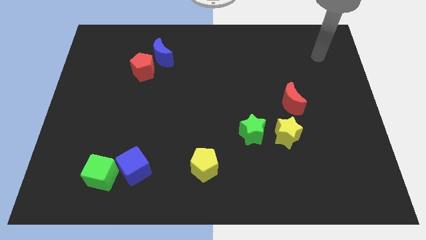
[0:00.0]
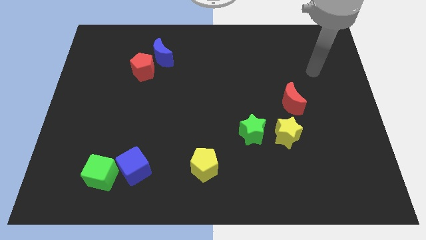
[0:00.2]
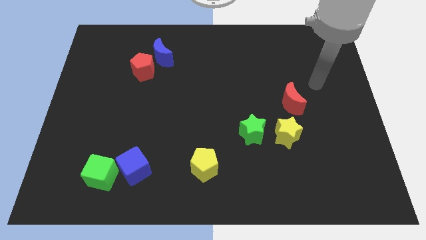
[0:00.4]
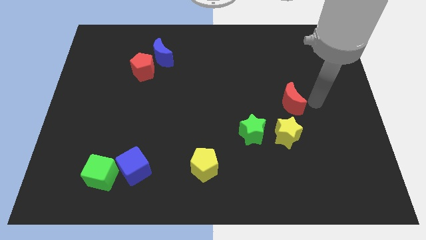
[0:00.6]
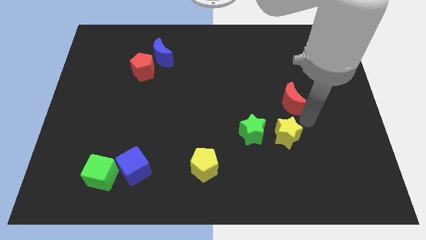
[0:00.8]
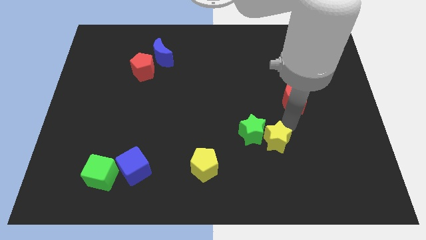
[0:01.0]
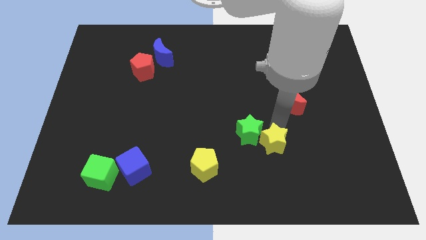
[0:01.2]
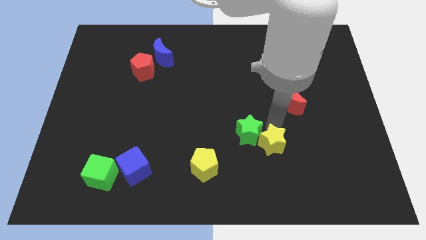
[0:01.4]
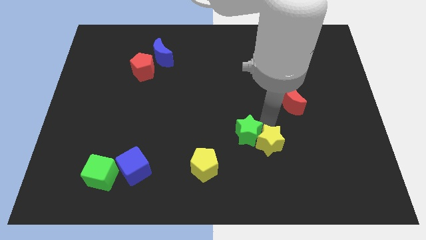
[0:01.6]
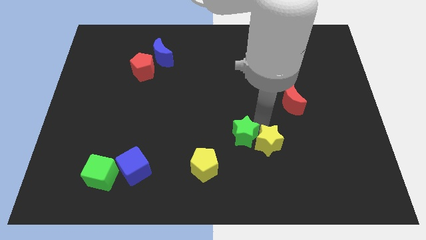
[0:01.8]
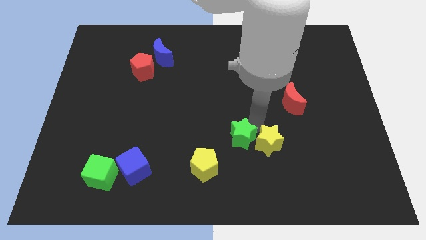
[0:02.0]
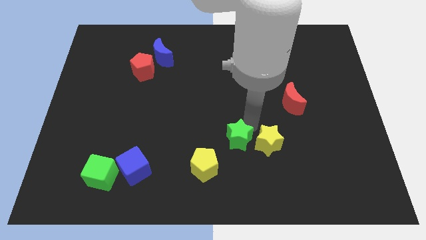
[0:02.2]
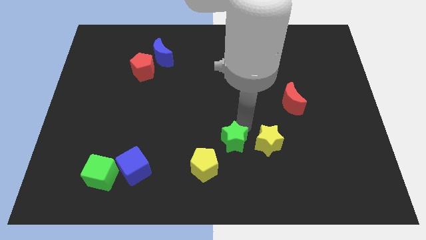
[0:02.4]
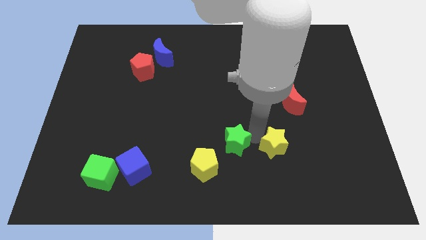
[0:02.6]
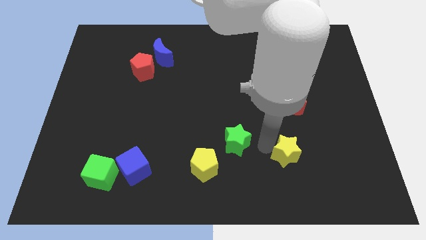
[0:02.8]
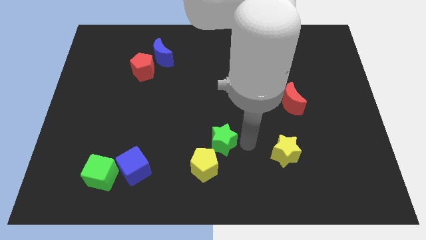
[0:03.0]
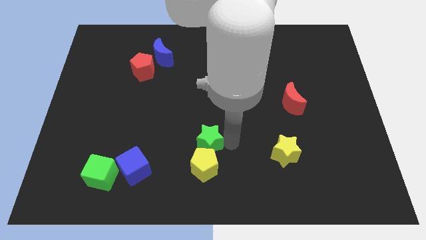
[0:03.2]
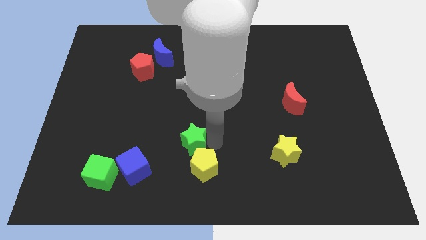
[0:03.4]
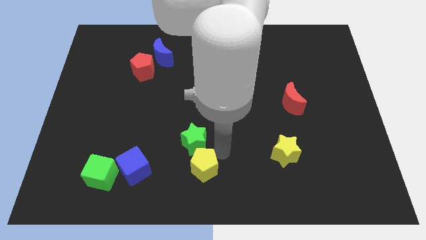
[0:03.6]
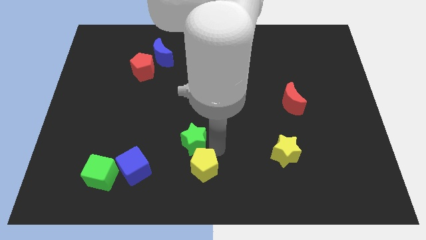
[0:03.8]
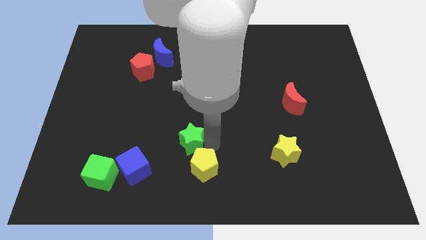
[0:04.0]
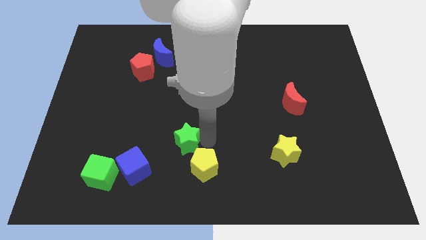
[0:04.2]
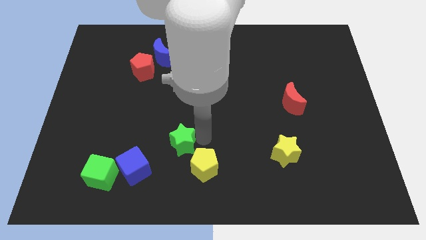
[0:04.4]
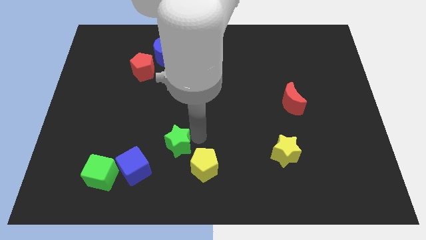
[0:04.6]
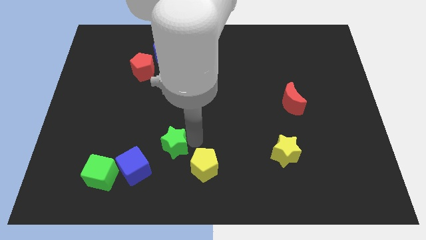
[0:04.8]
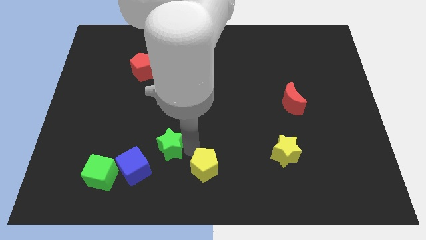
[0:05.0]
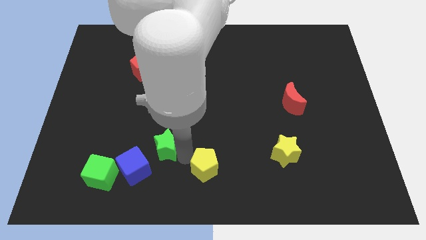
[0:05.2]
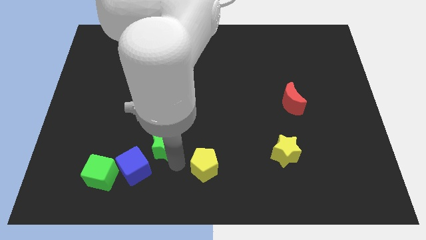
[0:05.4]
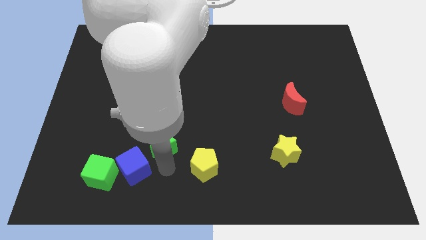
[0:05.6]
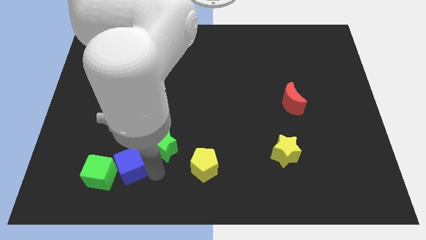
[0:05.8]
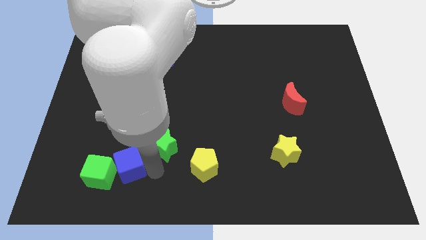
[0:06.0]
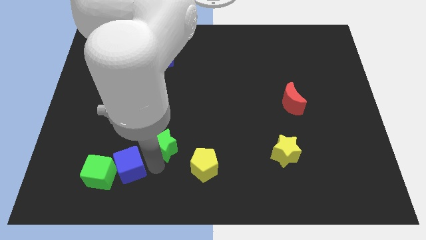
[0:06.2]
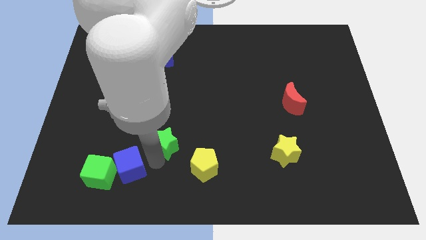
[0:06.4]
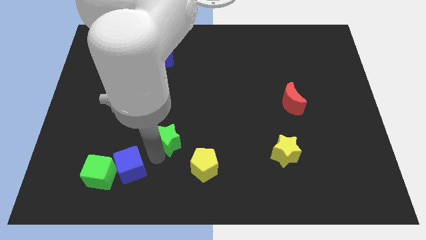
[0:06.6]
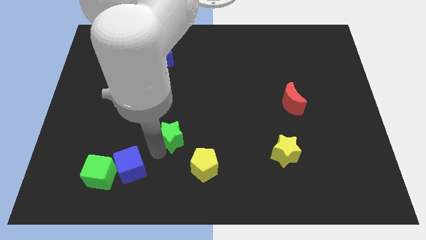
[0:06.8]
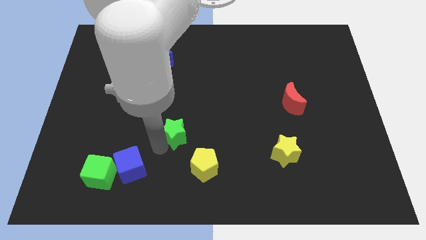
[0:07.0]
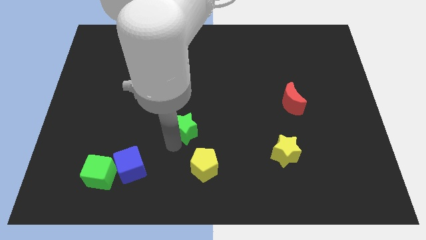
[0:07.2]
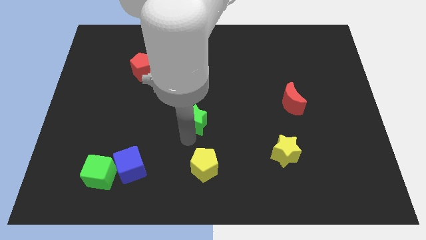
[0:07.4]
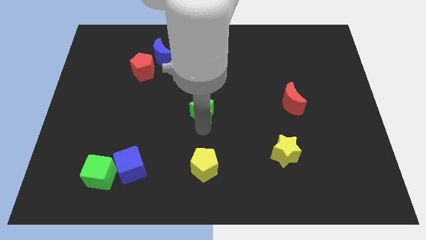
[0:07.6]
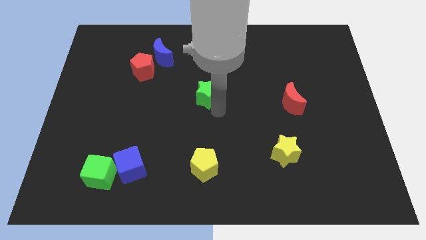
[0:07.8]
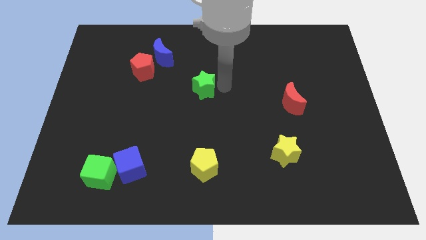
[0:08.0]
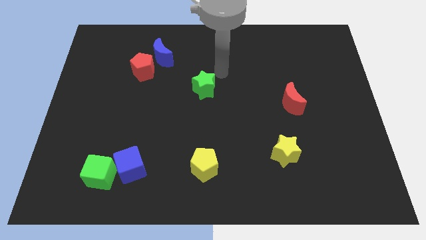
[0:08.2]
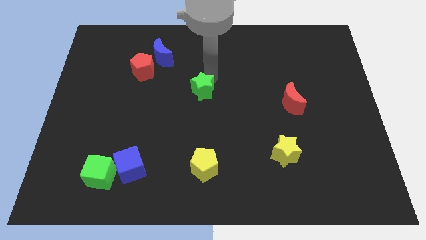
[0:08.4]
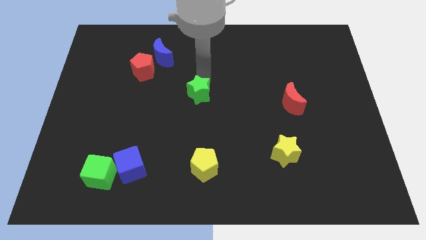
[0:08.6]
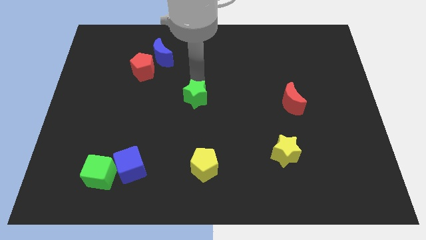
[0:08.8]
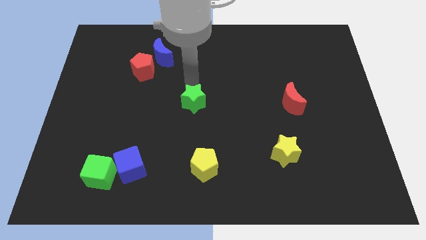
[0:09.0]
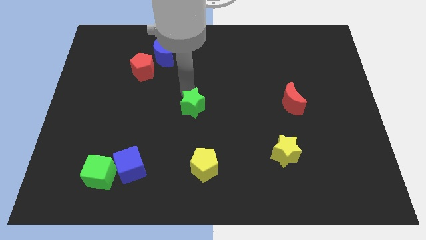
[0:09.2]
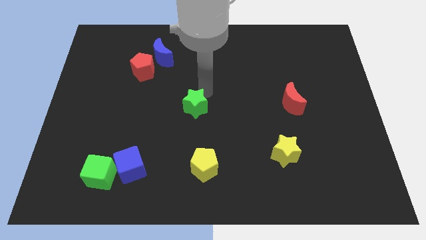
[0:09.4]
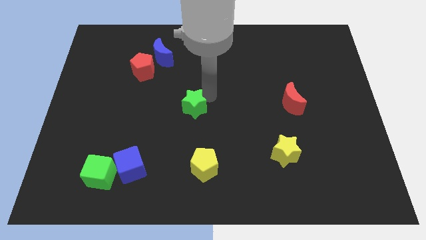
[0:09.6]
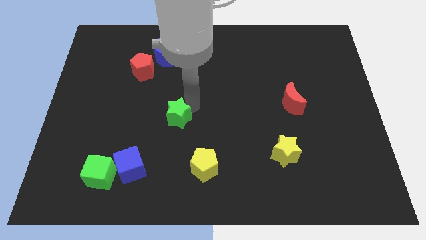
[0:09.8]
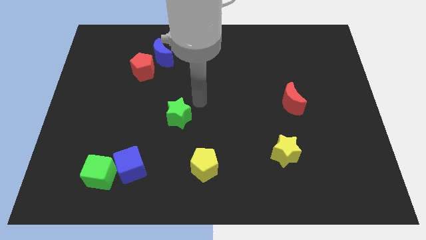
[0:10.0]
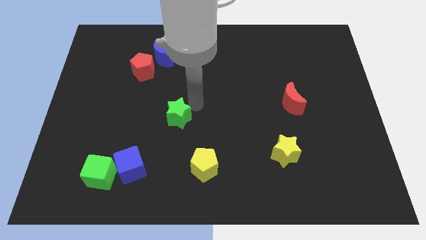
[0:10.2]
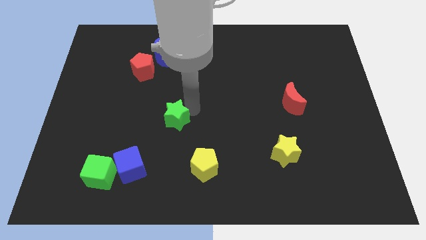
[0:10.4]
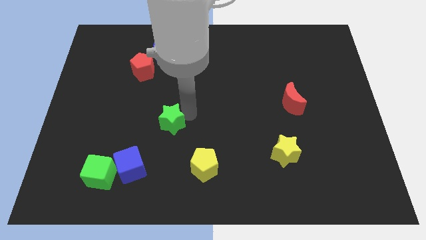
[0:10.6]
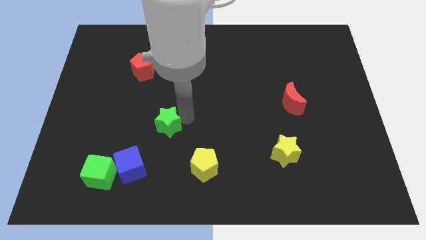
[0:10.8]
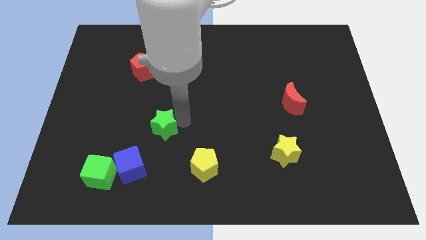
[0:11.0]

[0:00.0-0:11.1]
slide the green star left

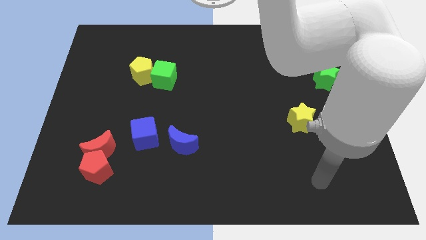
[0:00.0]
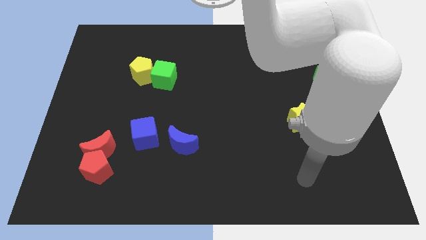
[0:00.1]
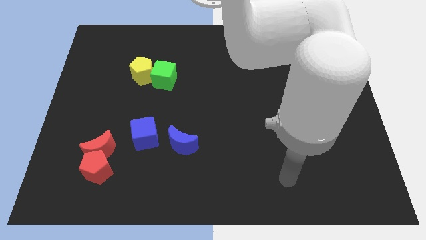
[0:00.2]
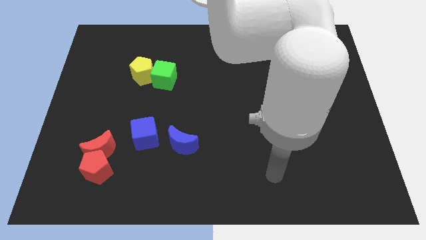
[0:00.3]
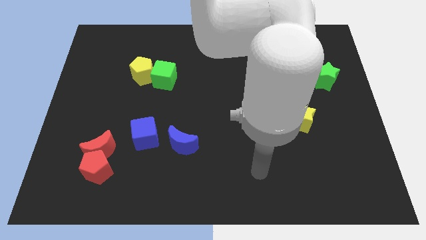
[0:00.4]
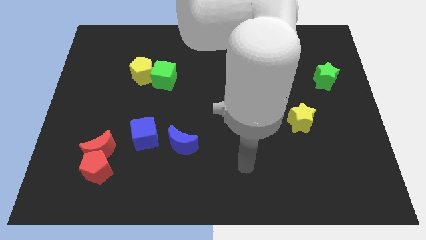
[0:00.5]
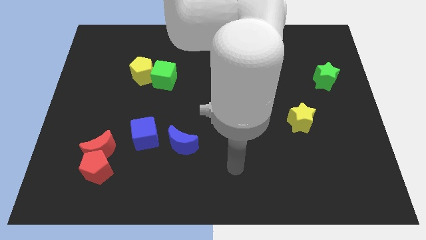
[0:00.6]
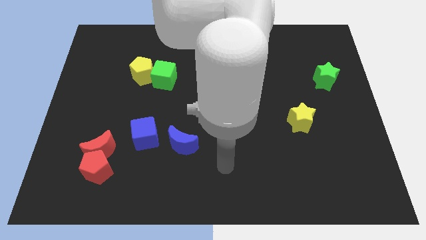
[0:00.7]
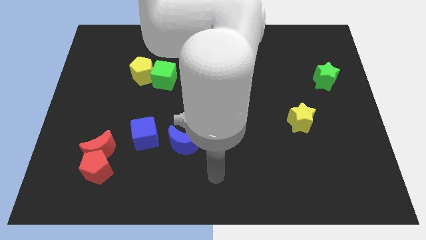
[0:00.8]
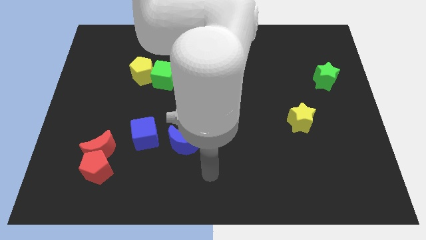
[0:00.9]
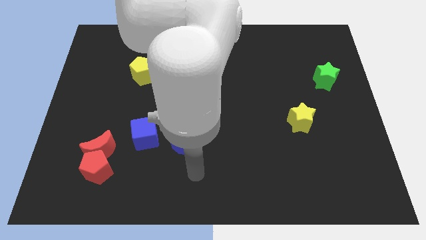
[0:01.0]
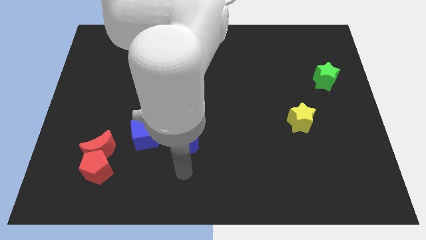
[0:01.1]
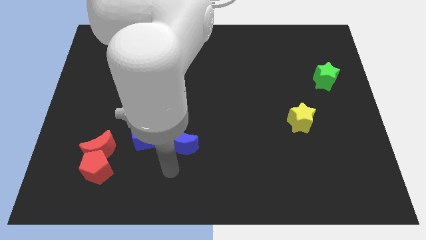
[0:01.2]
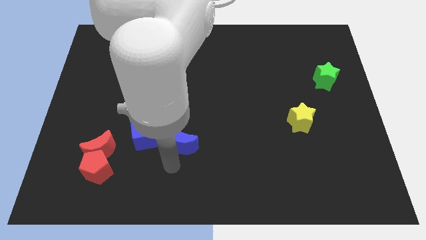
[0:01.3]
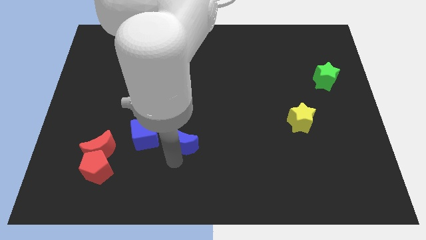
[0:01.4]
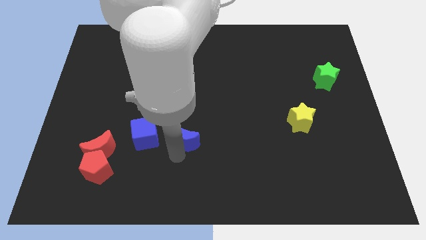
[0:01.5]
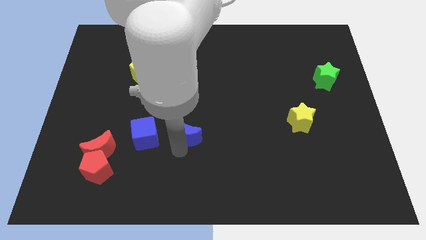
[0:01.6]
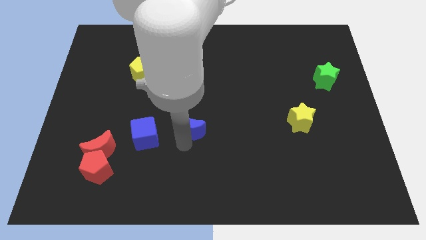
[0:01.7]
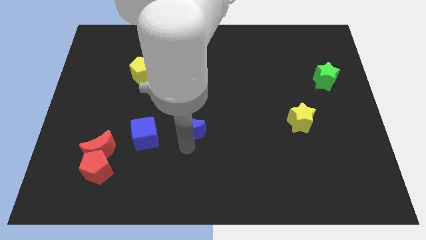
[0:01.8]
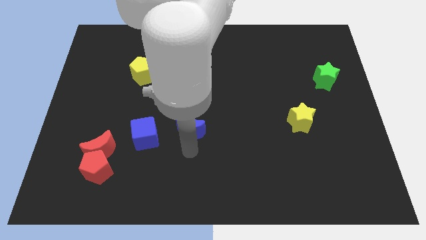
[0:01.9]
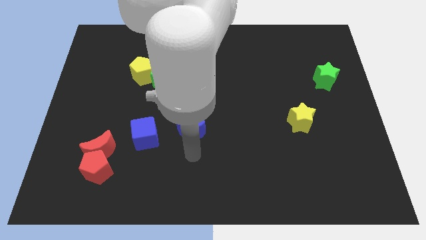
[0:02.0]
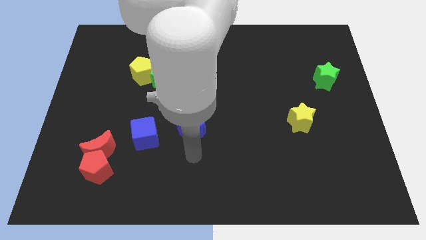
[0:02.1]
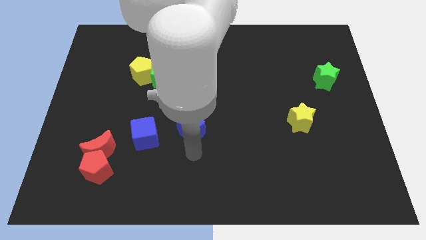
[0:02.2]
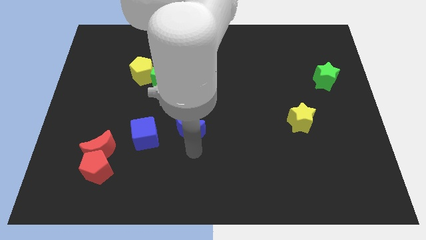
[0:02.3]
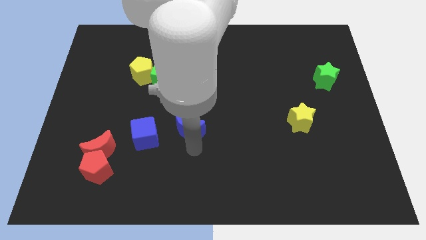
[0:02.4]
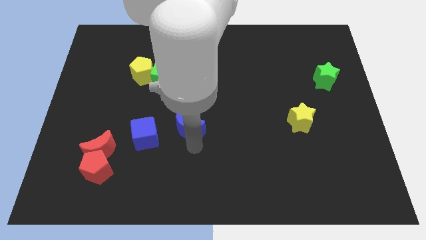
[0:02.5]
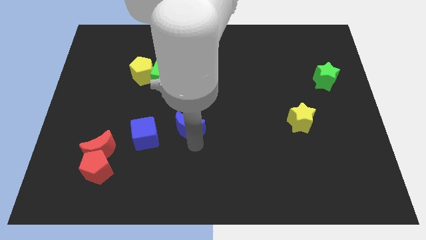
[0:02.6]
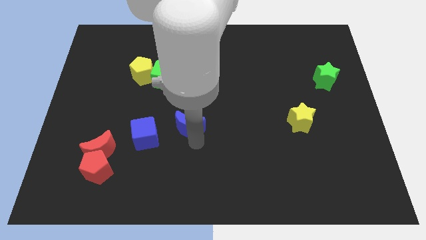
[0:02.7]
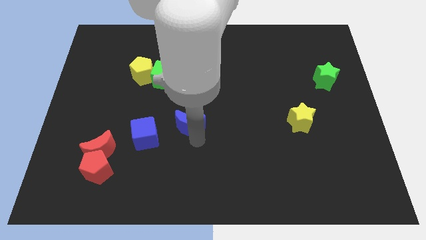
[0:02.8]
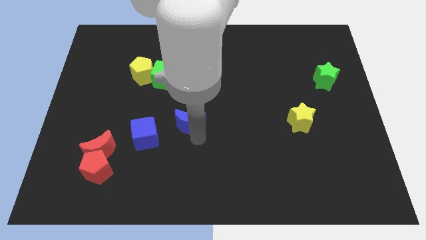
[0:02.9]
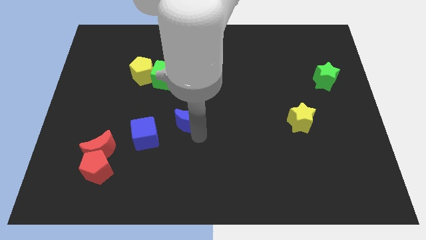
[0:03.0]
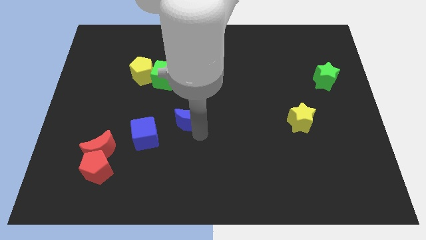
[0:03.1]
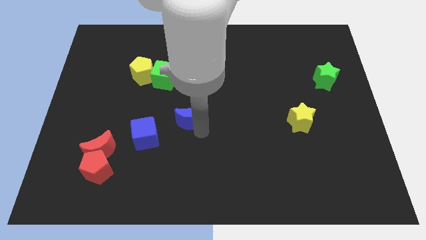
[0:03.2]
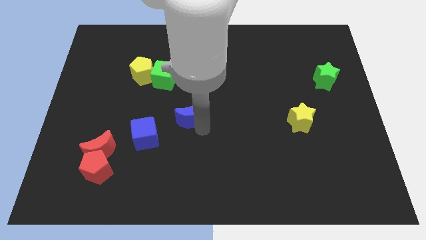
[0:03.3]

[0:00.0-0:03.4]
slightly push the blue moon up
